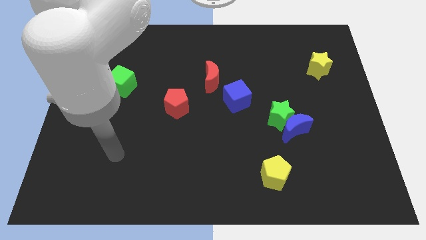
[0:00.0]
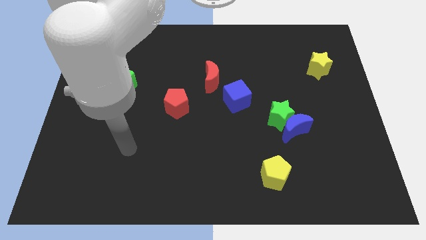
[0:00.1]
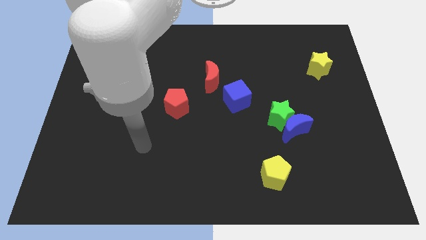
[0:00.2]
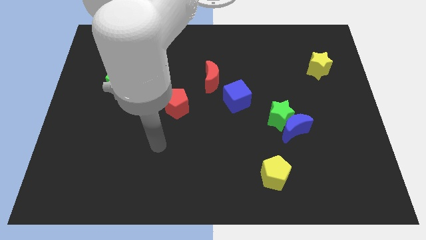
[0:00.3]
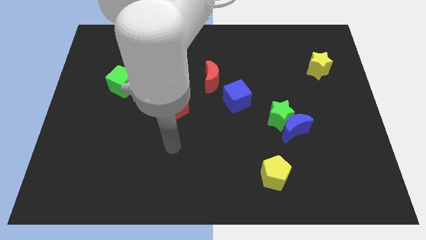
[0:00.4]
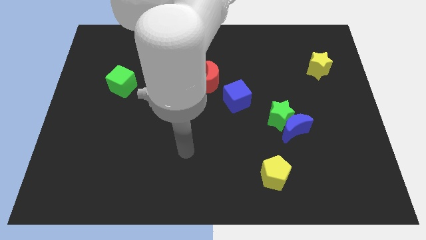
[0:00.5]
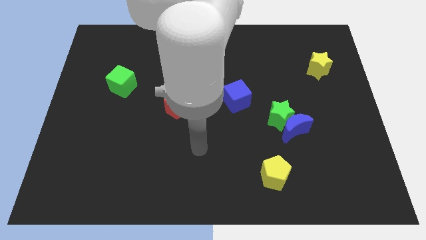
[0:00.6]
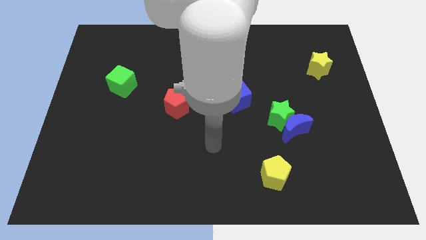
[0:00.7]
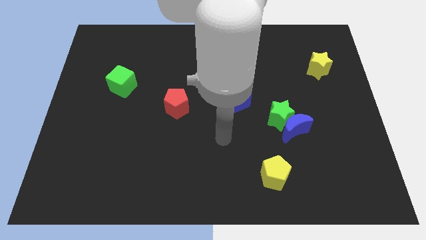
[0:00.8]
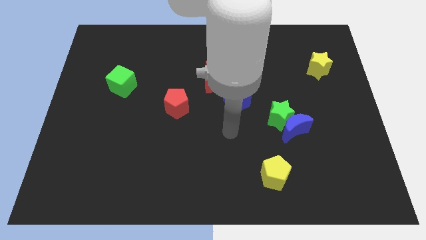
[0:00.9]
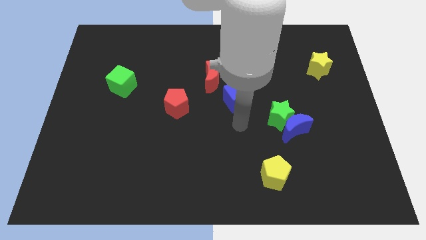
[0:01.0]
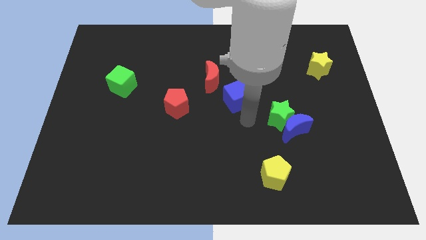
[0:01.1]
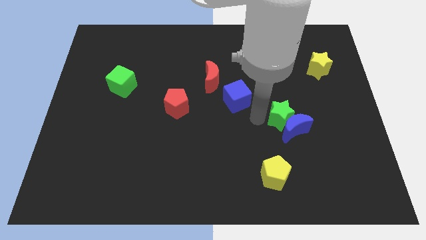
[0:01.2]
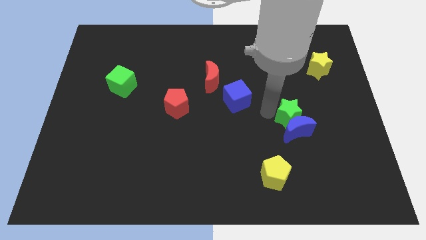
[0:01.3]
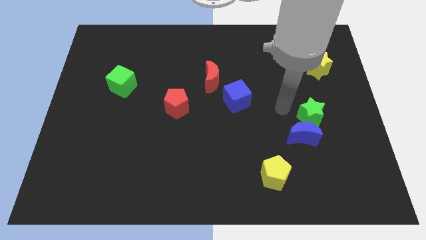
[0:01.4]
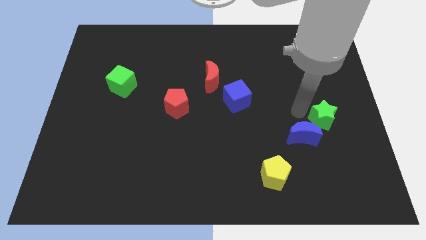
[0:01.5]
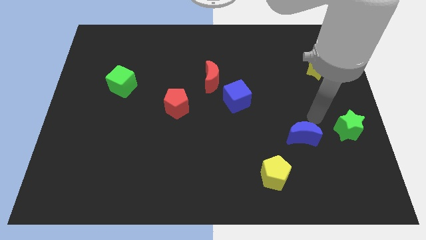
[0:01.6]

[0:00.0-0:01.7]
move the blue moon away from the green star

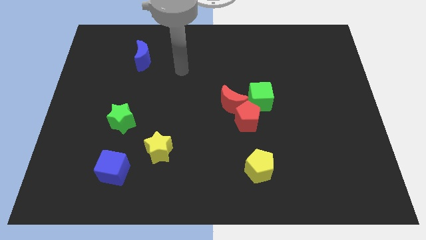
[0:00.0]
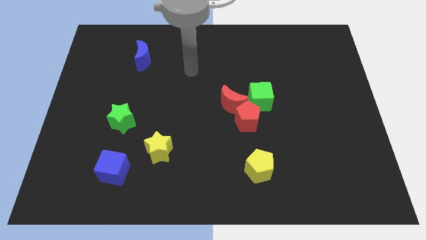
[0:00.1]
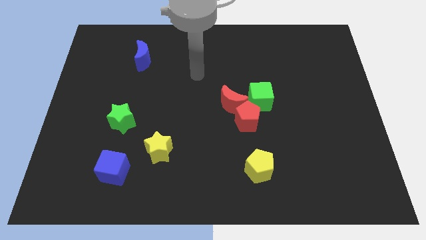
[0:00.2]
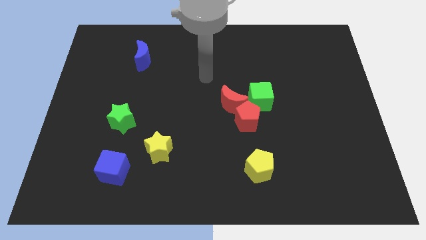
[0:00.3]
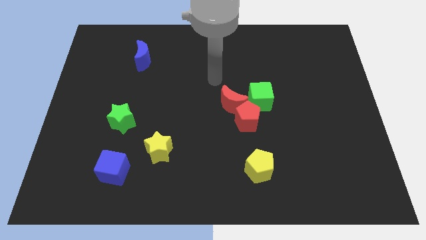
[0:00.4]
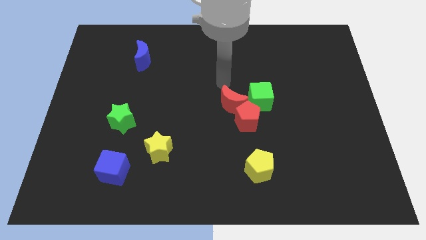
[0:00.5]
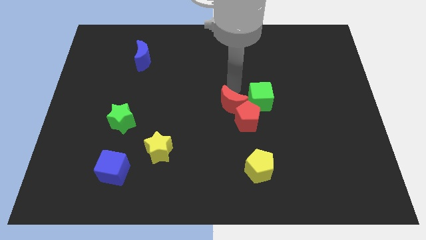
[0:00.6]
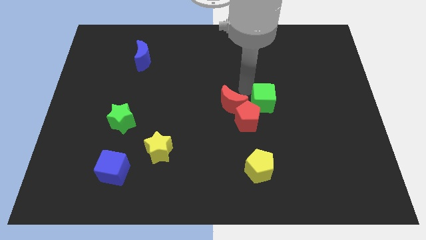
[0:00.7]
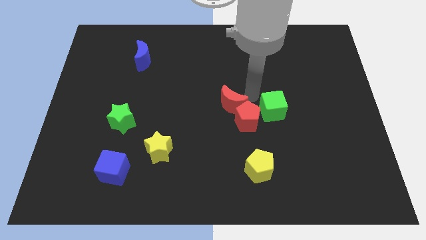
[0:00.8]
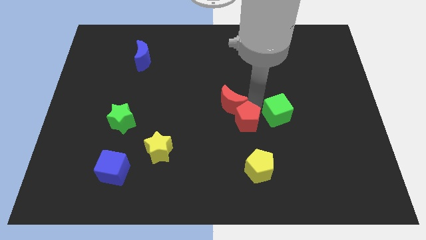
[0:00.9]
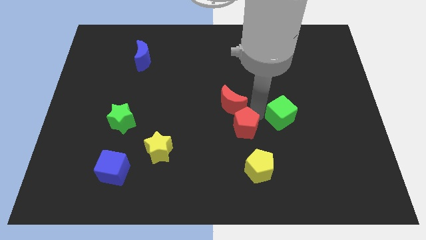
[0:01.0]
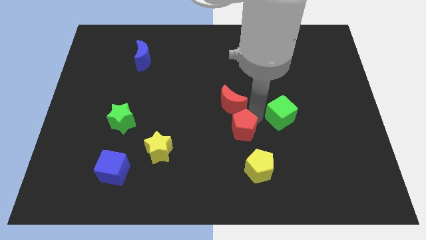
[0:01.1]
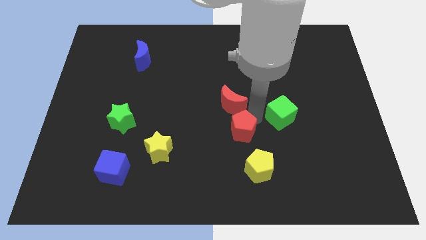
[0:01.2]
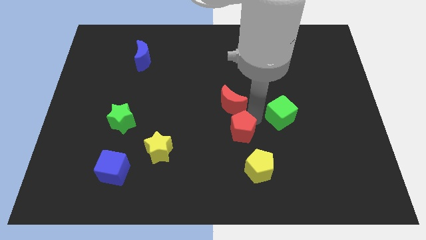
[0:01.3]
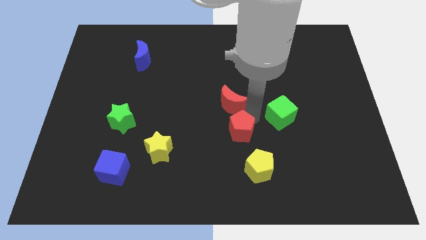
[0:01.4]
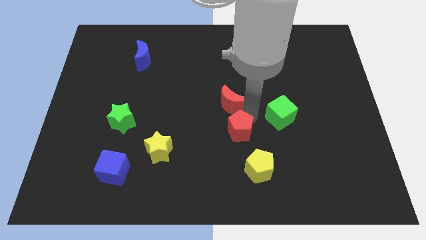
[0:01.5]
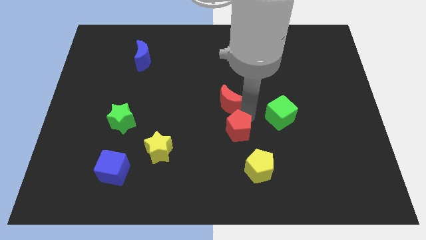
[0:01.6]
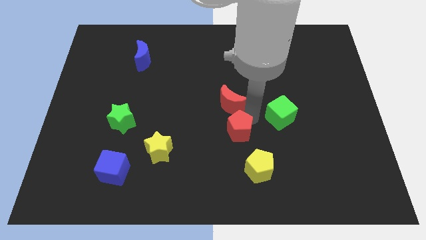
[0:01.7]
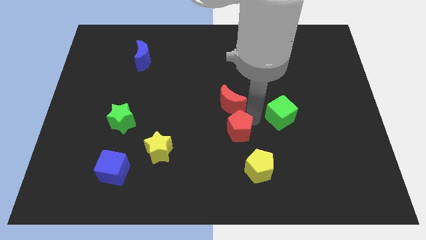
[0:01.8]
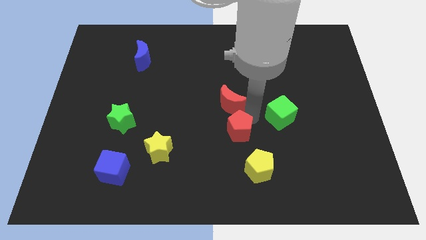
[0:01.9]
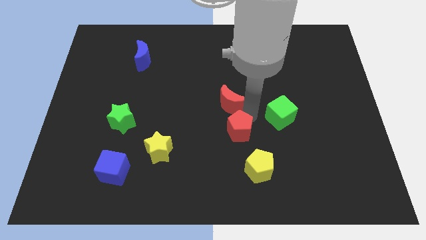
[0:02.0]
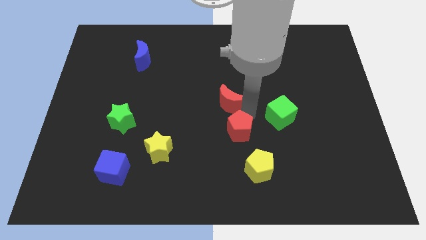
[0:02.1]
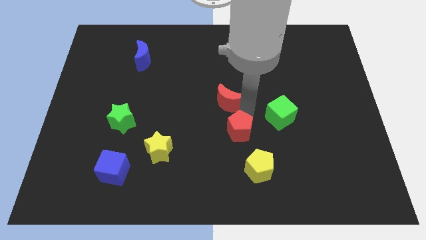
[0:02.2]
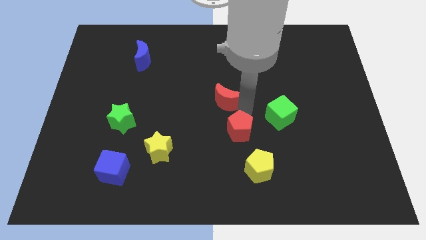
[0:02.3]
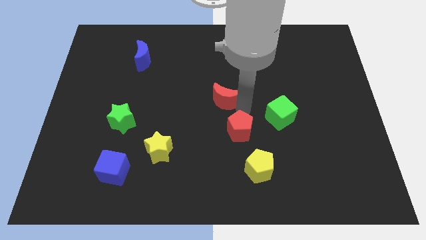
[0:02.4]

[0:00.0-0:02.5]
move the red moon away from the red pentagon and green cube

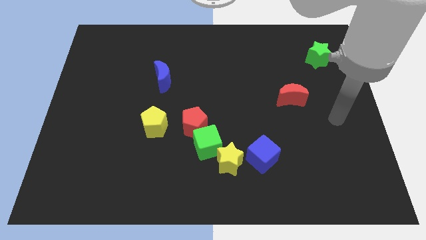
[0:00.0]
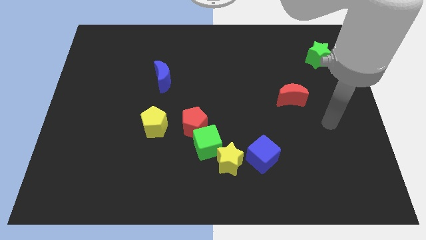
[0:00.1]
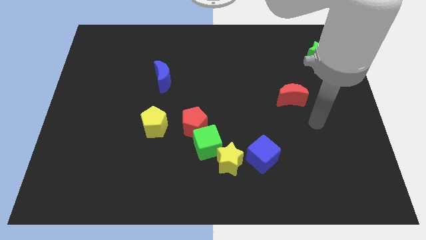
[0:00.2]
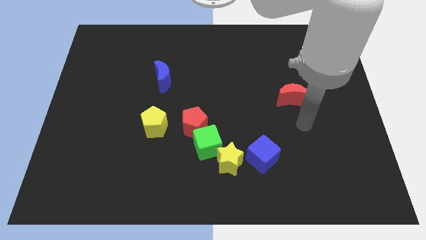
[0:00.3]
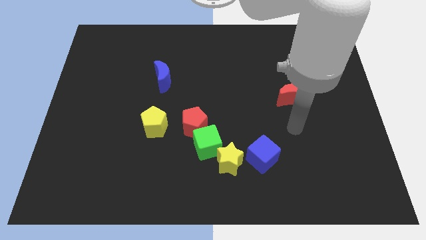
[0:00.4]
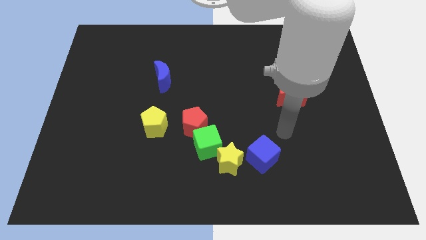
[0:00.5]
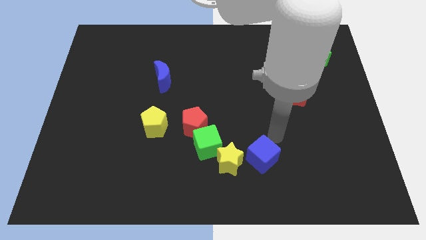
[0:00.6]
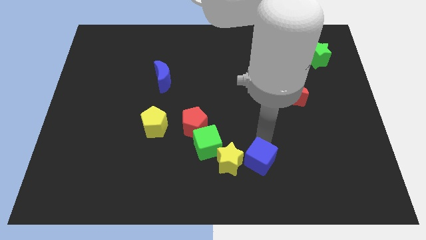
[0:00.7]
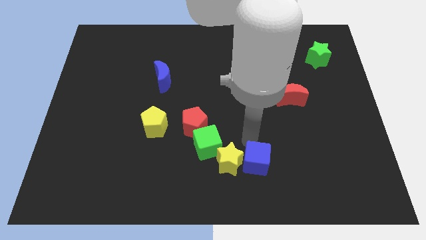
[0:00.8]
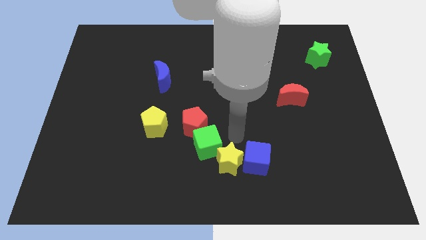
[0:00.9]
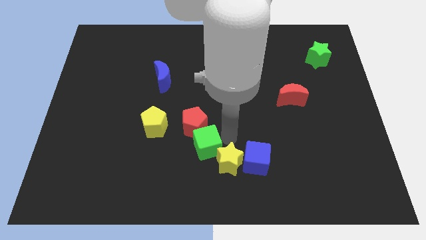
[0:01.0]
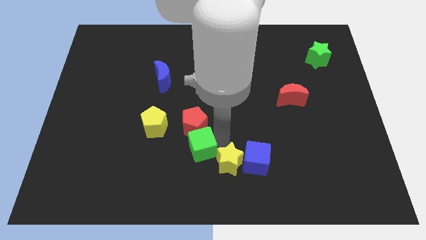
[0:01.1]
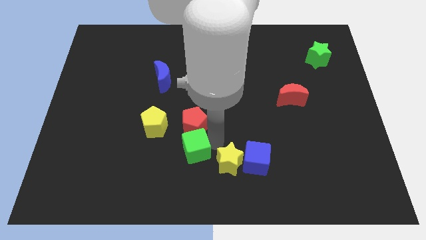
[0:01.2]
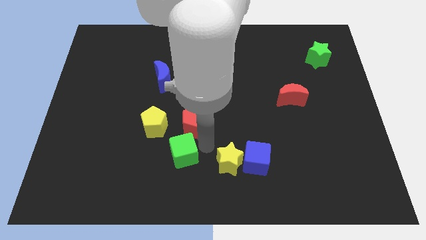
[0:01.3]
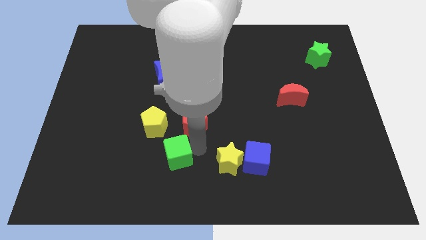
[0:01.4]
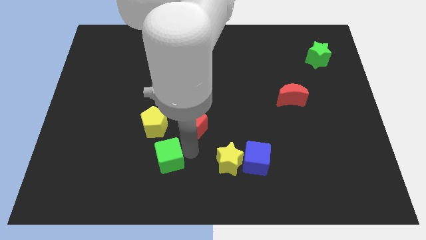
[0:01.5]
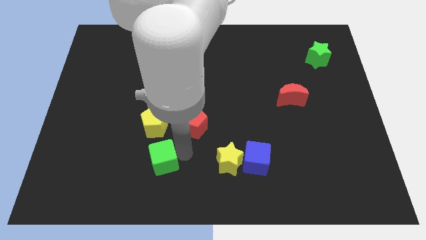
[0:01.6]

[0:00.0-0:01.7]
move the green cube away from the red pentagon and yellow star

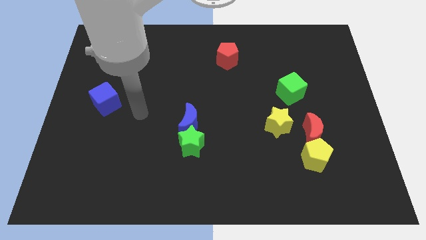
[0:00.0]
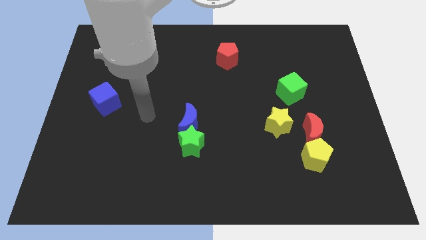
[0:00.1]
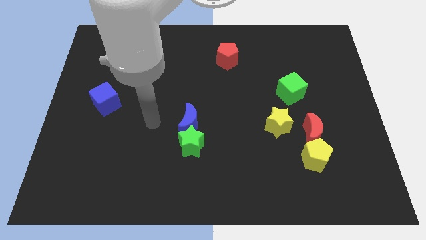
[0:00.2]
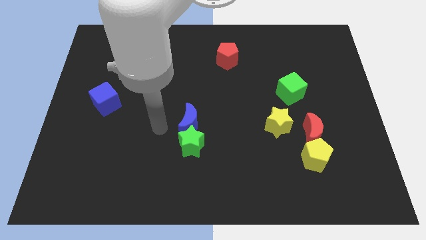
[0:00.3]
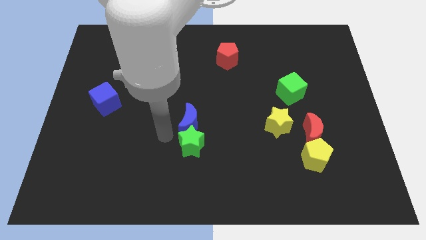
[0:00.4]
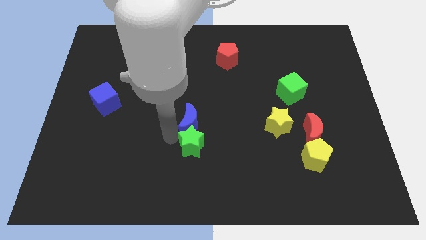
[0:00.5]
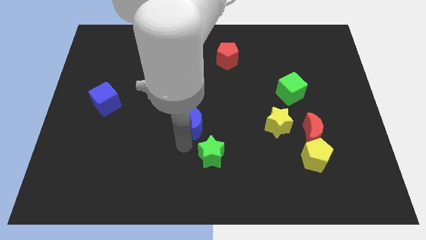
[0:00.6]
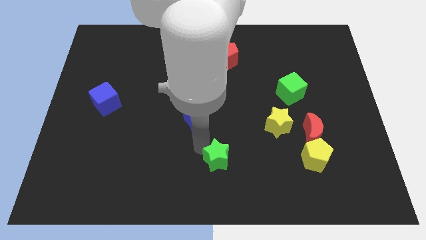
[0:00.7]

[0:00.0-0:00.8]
pull the blue moon apart from the green star

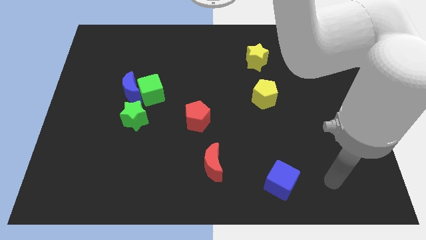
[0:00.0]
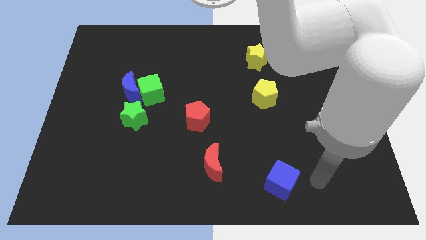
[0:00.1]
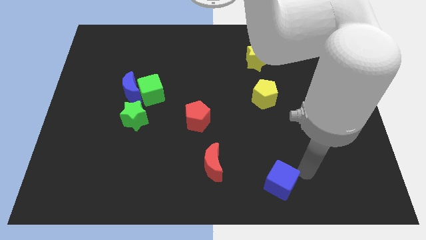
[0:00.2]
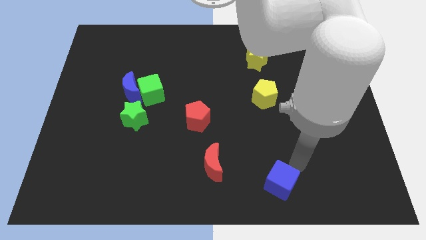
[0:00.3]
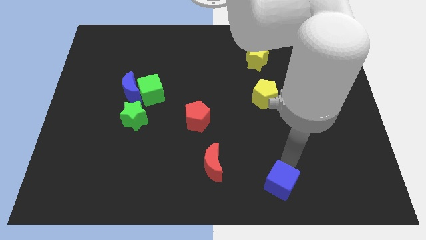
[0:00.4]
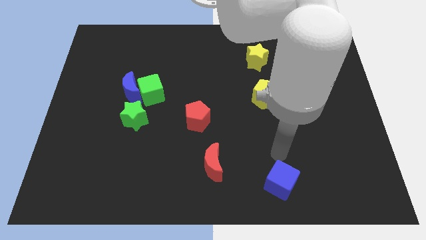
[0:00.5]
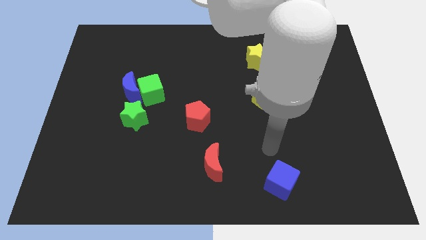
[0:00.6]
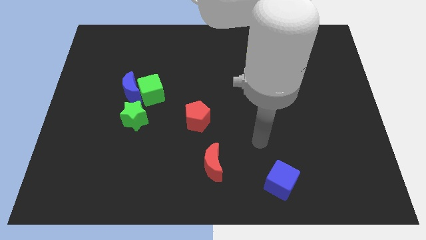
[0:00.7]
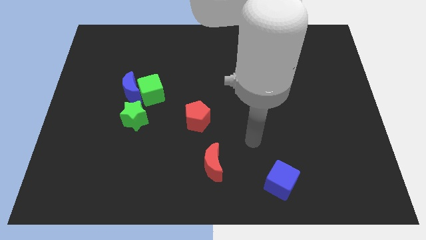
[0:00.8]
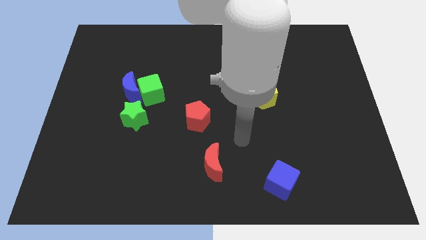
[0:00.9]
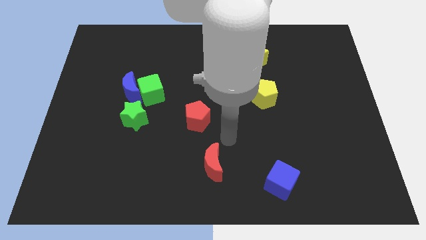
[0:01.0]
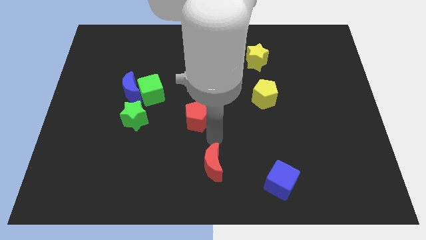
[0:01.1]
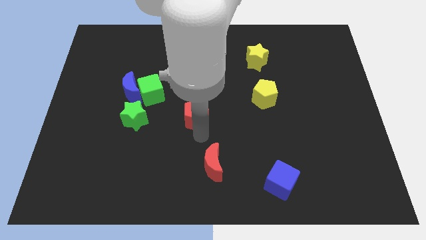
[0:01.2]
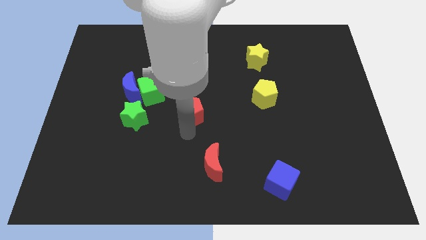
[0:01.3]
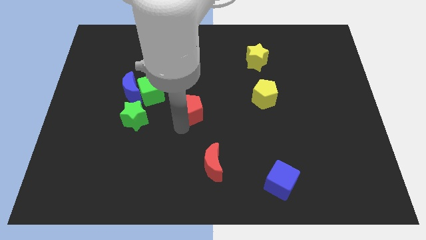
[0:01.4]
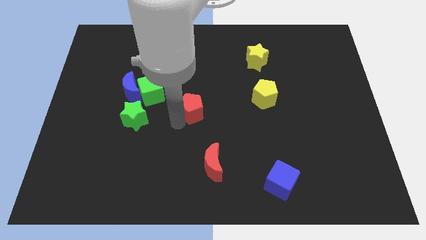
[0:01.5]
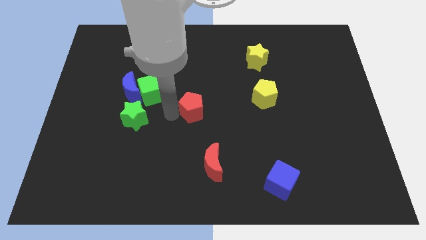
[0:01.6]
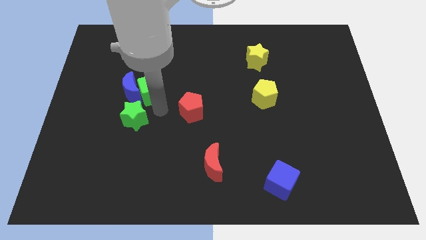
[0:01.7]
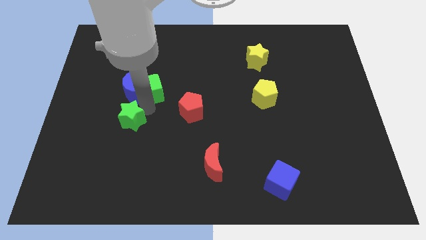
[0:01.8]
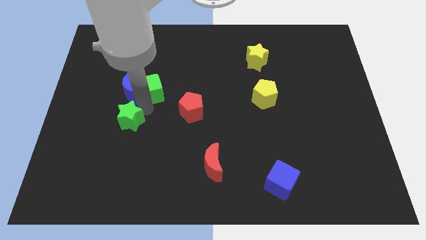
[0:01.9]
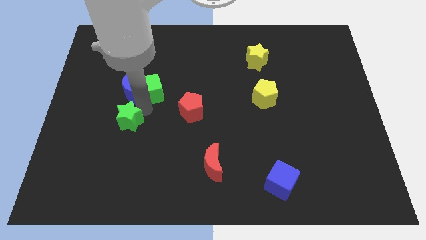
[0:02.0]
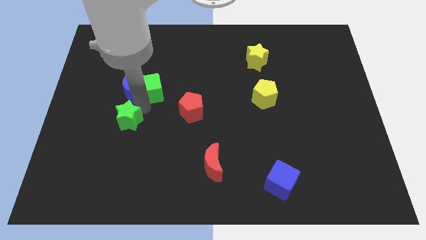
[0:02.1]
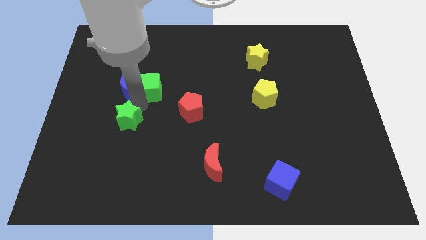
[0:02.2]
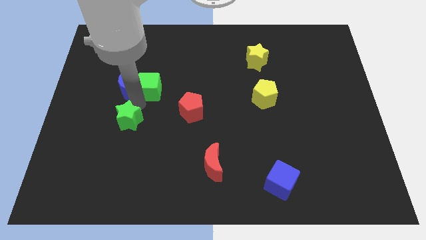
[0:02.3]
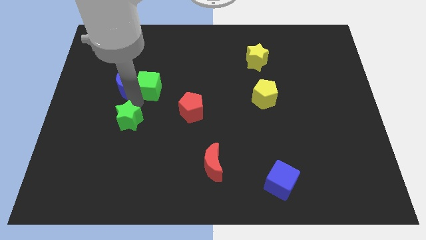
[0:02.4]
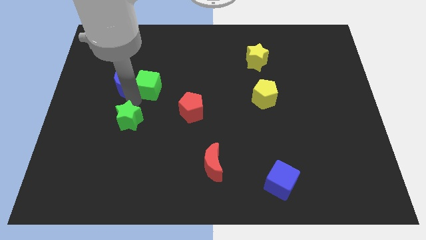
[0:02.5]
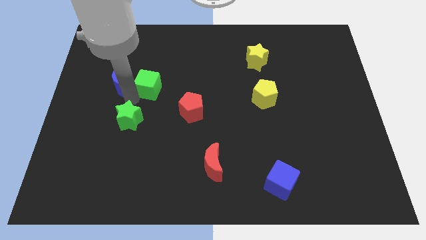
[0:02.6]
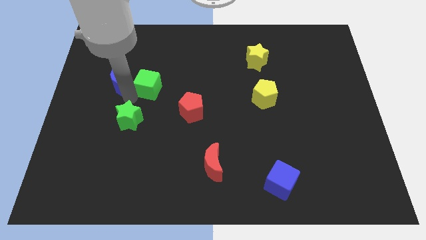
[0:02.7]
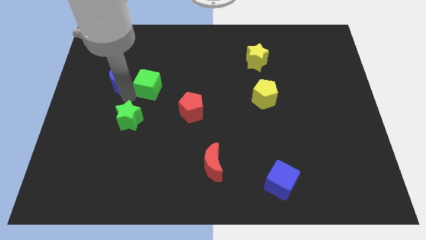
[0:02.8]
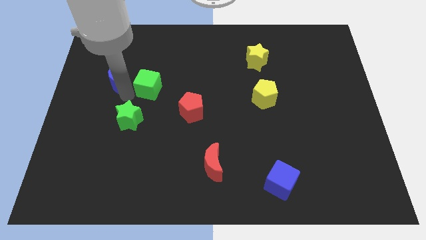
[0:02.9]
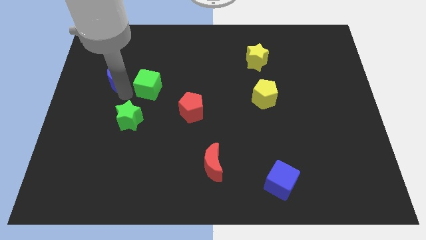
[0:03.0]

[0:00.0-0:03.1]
move the blue moon away from the green cube and green star
